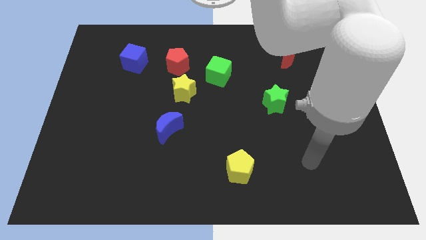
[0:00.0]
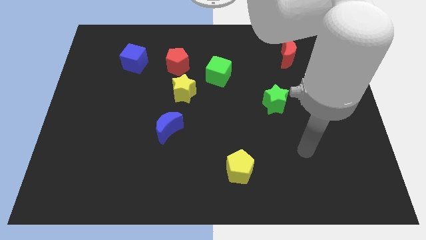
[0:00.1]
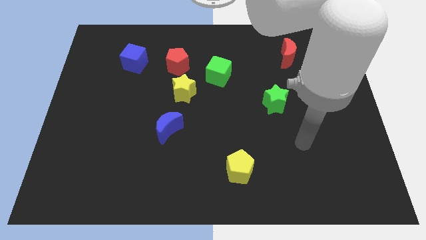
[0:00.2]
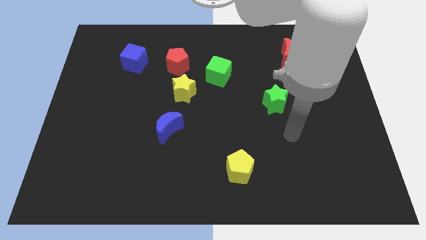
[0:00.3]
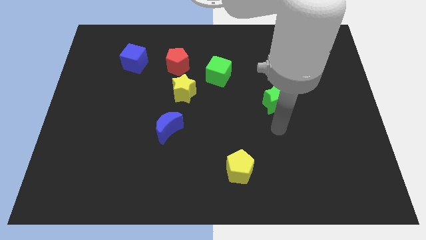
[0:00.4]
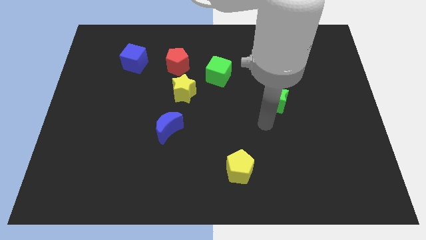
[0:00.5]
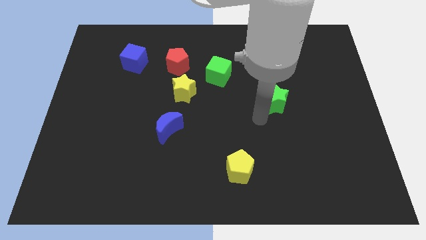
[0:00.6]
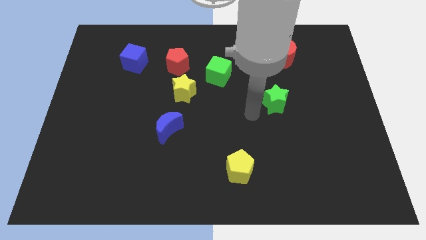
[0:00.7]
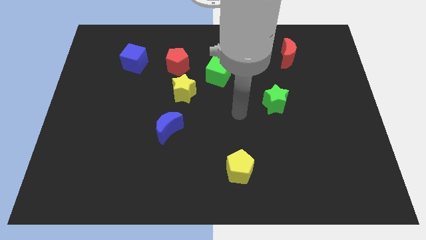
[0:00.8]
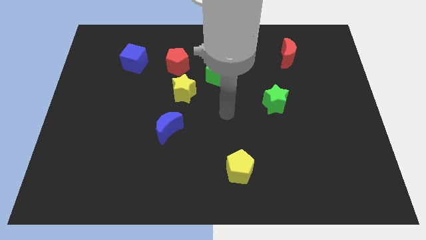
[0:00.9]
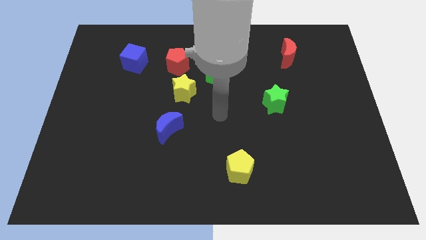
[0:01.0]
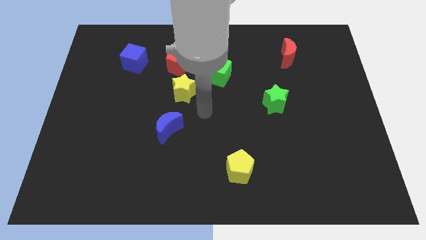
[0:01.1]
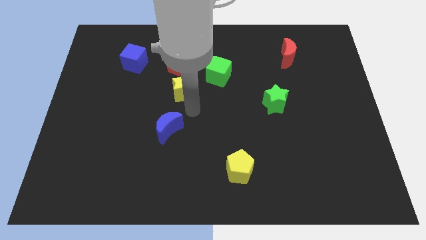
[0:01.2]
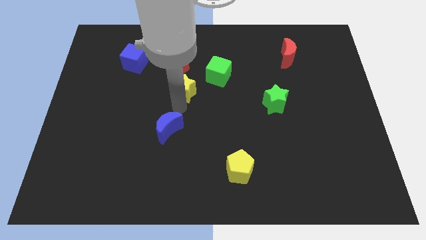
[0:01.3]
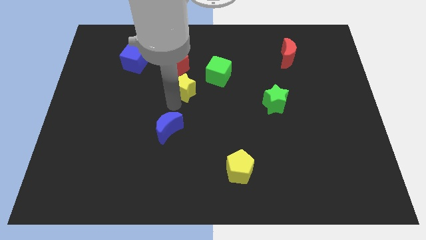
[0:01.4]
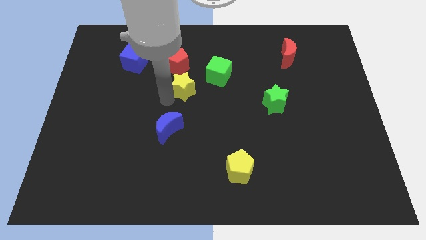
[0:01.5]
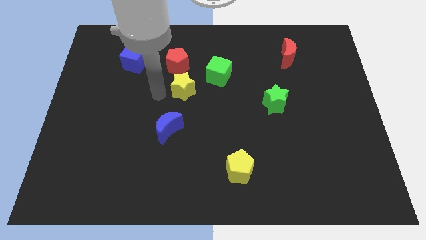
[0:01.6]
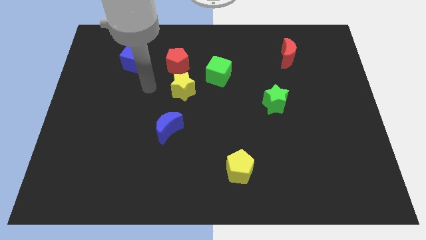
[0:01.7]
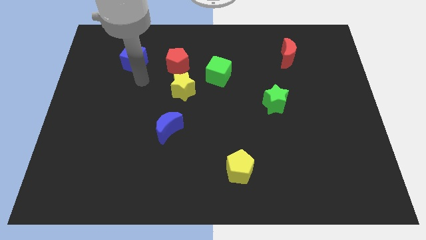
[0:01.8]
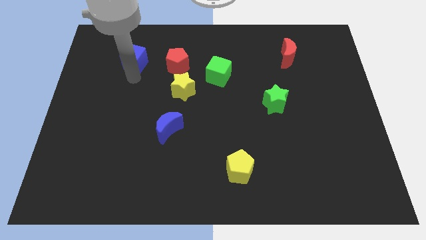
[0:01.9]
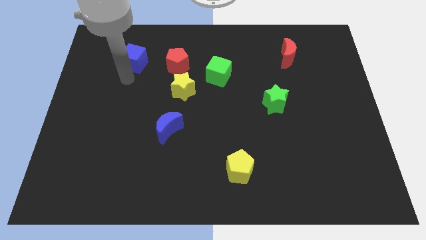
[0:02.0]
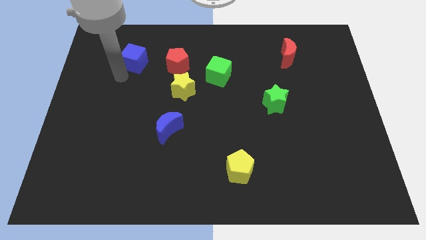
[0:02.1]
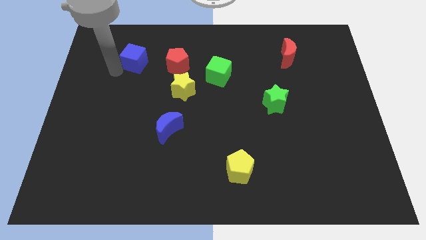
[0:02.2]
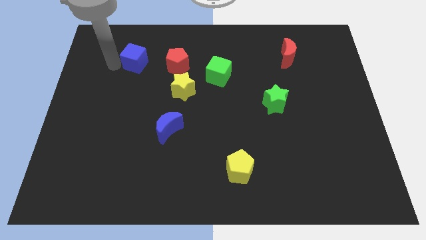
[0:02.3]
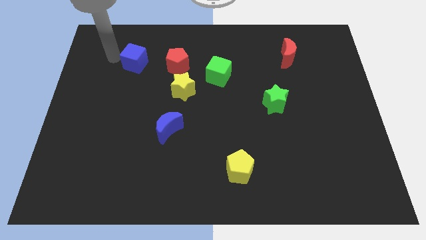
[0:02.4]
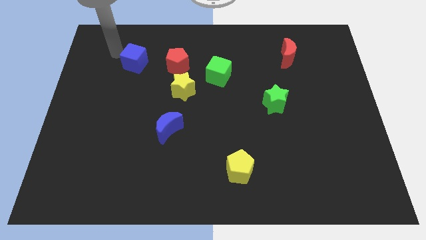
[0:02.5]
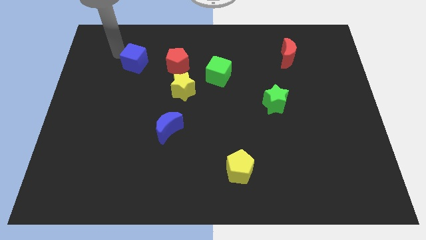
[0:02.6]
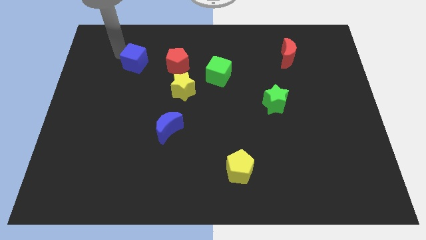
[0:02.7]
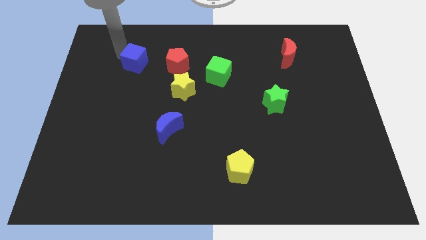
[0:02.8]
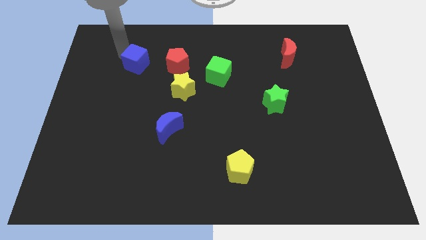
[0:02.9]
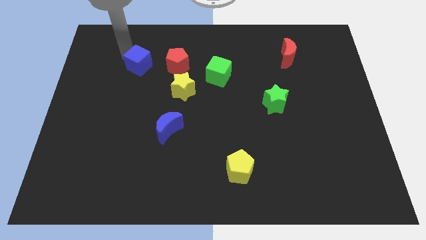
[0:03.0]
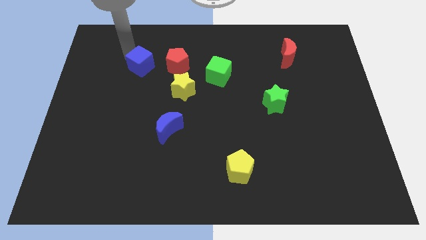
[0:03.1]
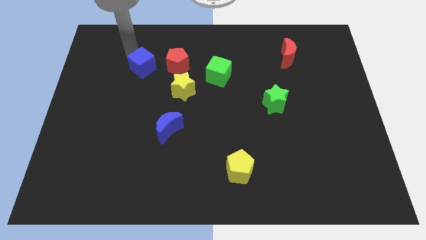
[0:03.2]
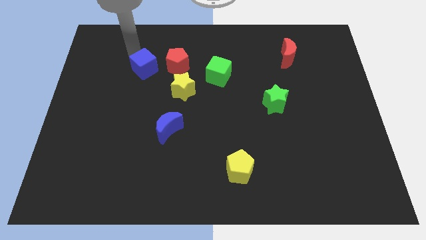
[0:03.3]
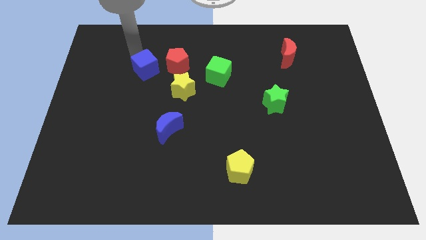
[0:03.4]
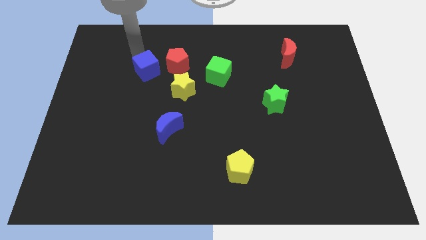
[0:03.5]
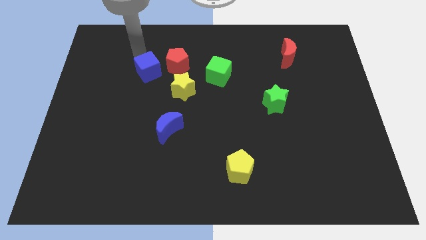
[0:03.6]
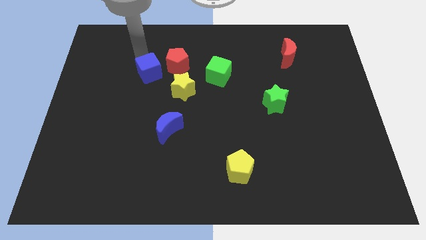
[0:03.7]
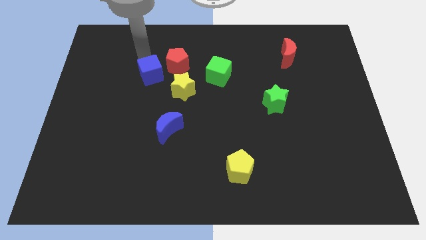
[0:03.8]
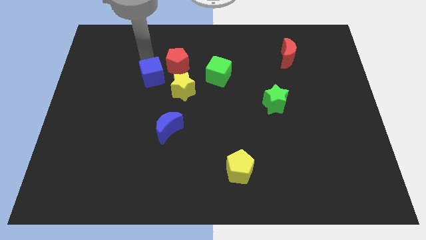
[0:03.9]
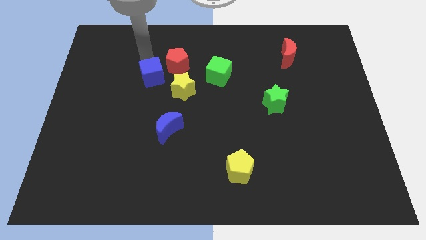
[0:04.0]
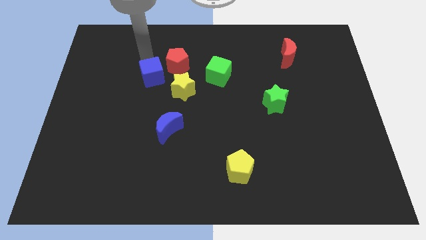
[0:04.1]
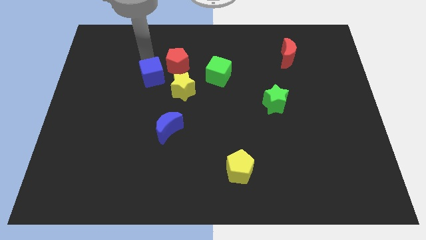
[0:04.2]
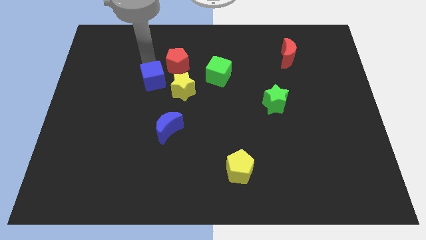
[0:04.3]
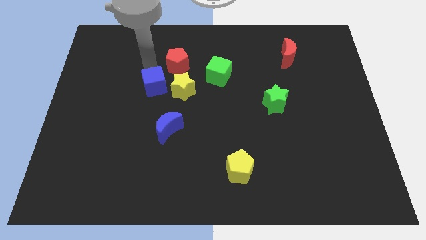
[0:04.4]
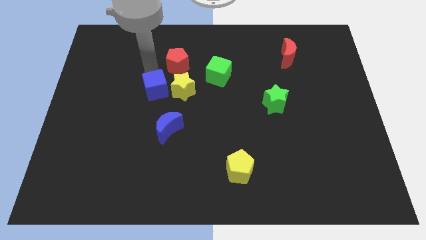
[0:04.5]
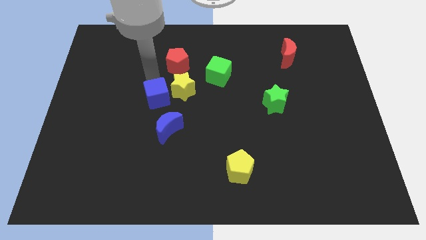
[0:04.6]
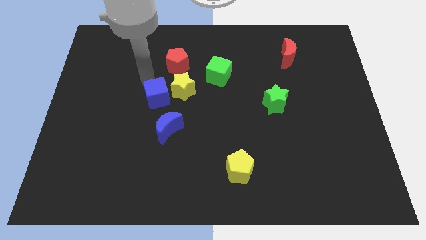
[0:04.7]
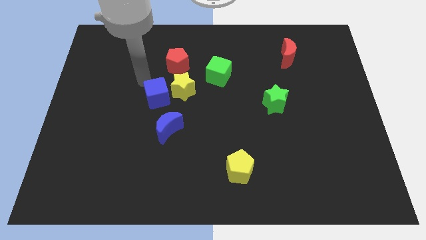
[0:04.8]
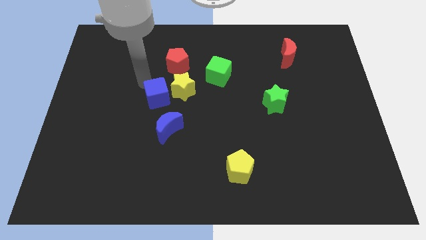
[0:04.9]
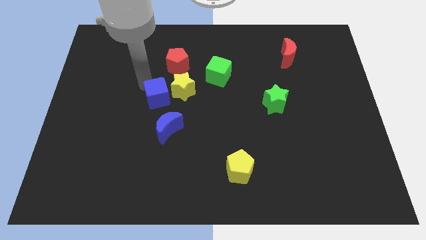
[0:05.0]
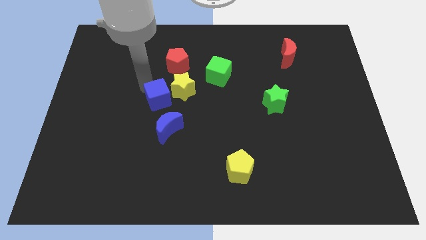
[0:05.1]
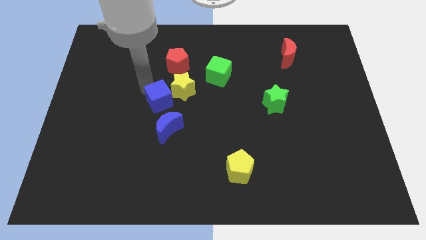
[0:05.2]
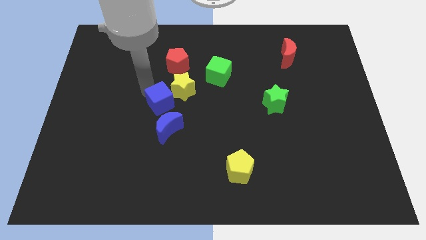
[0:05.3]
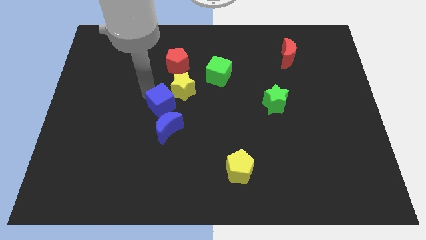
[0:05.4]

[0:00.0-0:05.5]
slide the blue cube below the yellow star

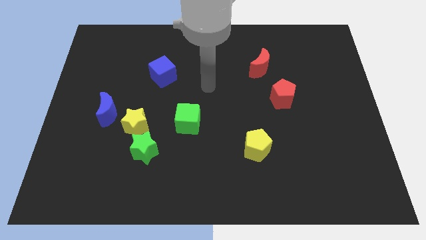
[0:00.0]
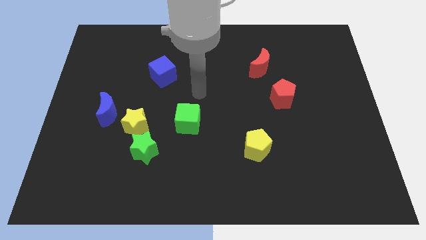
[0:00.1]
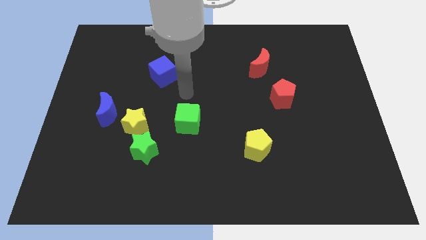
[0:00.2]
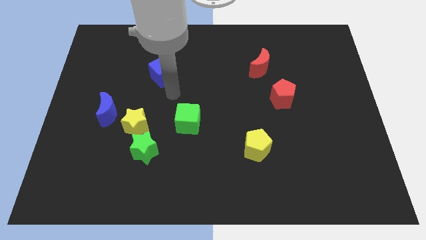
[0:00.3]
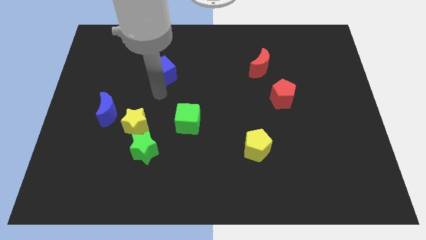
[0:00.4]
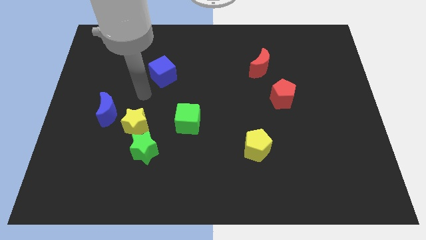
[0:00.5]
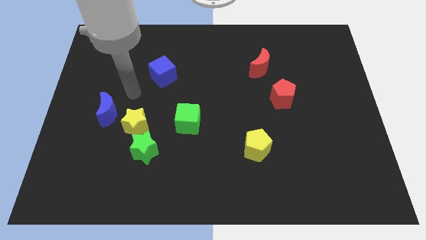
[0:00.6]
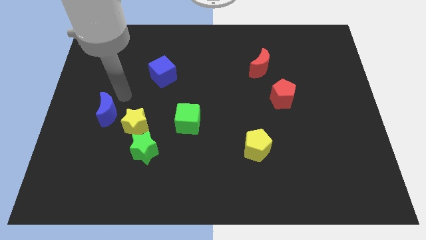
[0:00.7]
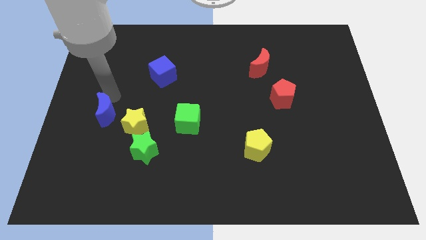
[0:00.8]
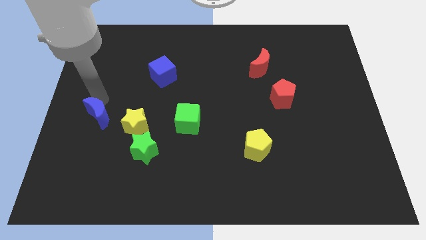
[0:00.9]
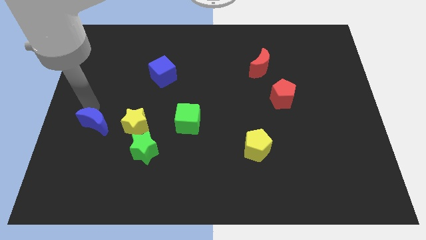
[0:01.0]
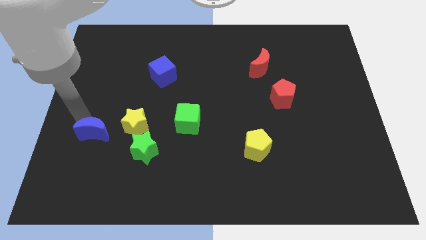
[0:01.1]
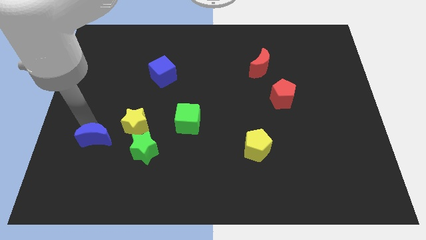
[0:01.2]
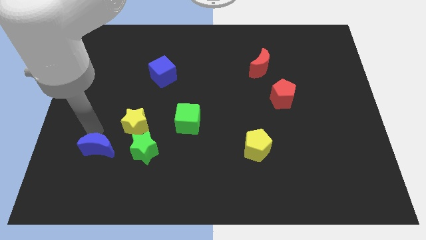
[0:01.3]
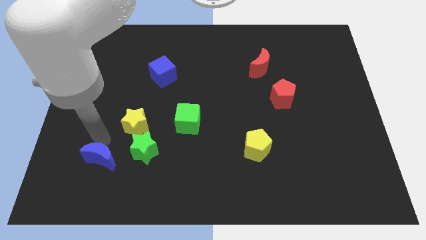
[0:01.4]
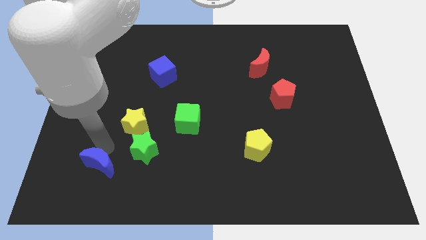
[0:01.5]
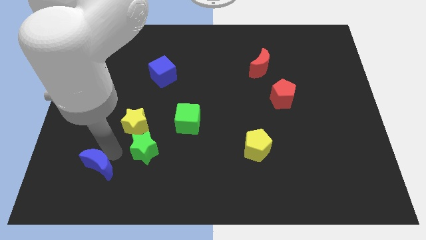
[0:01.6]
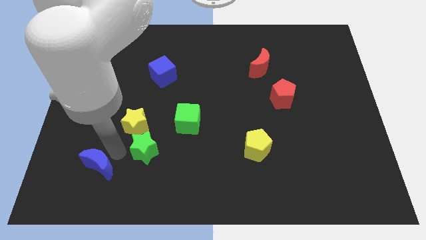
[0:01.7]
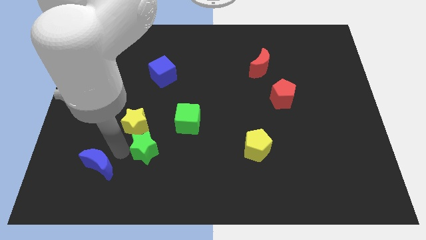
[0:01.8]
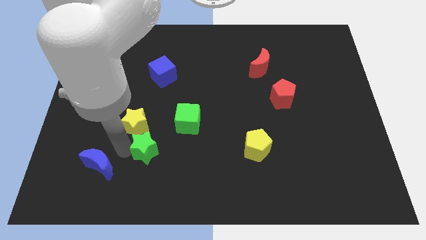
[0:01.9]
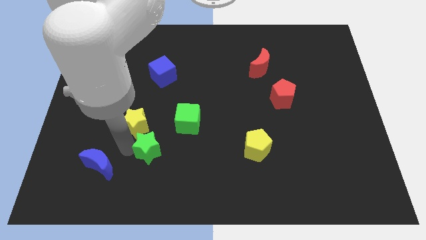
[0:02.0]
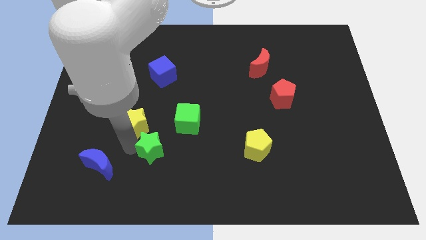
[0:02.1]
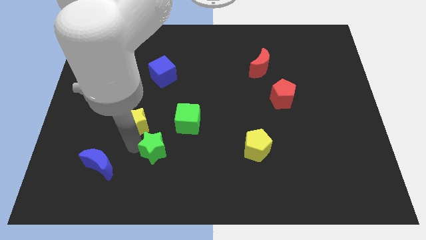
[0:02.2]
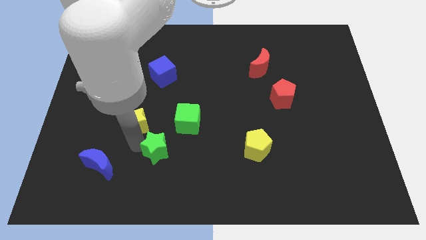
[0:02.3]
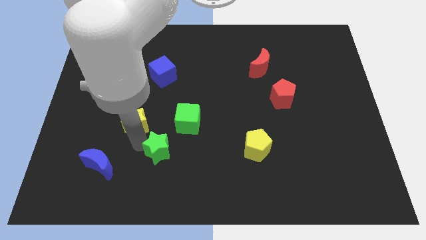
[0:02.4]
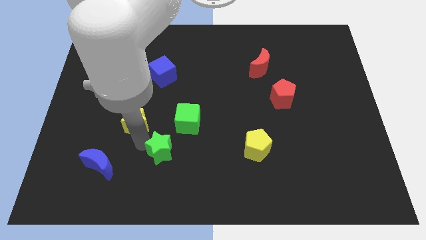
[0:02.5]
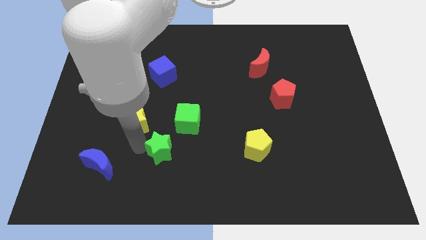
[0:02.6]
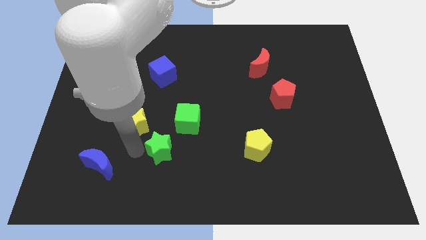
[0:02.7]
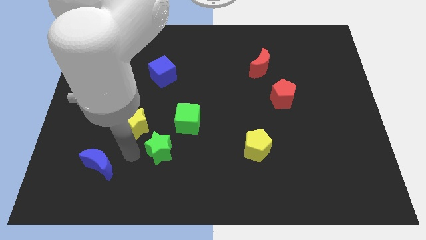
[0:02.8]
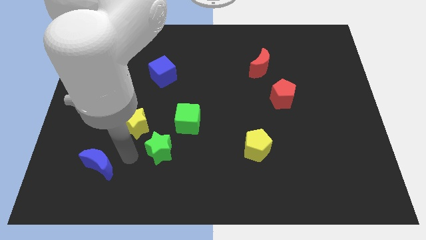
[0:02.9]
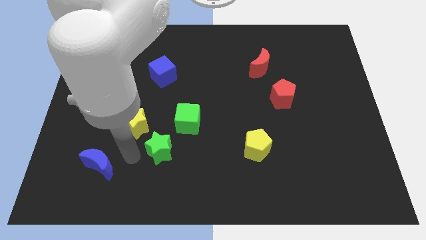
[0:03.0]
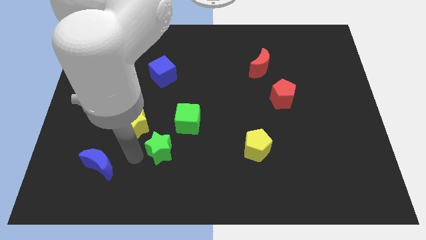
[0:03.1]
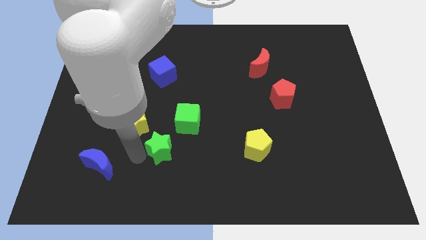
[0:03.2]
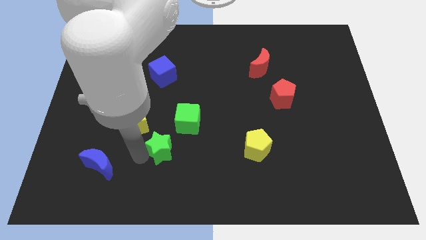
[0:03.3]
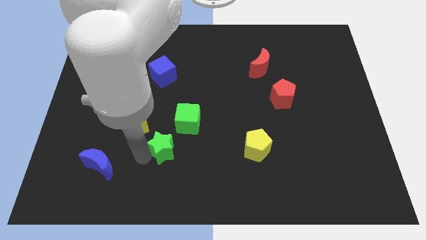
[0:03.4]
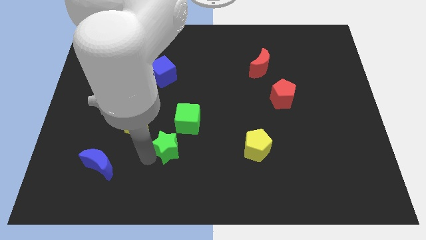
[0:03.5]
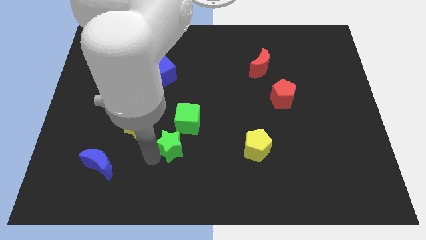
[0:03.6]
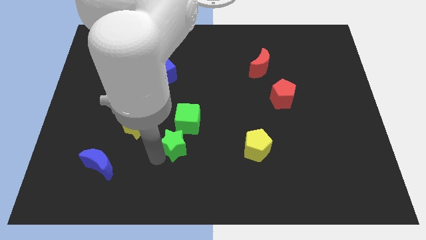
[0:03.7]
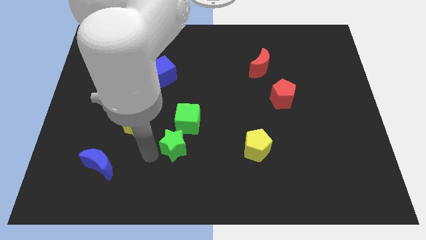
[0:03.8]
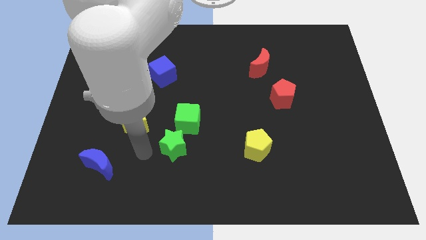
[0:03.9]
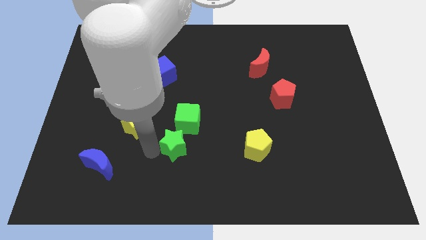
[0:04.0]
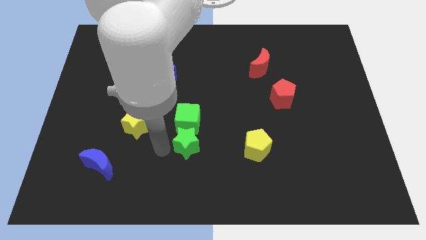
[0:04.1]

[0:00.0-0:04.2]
slide the green star diagonally down and to the right of the green cube
